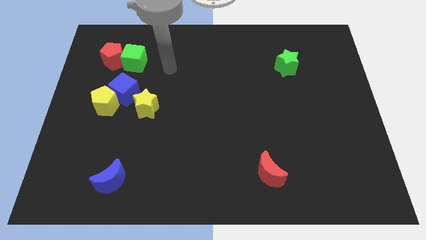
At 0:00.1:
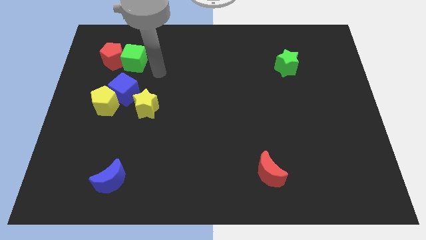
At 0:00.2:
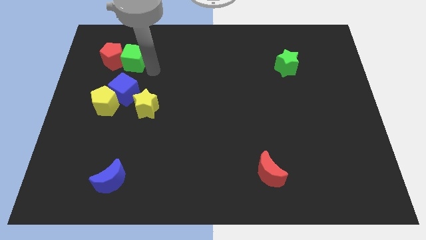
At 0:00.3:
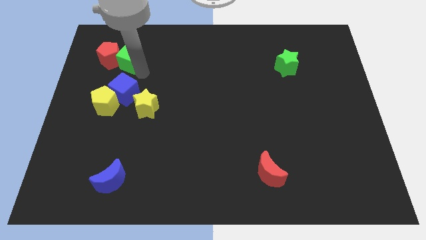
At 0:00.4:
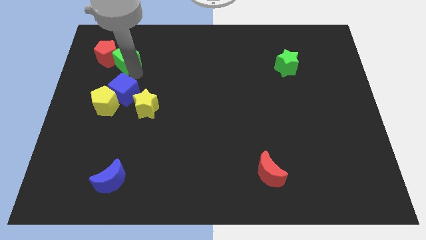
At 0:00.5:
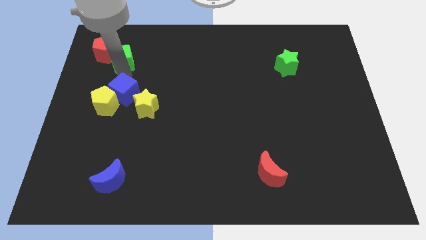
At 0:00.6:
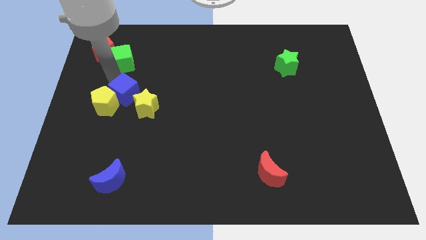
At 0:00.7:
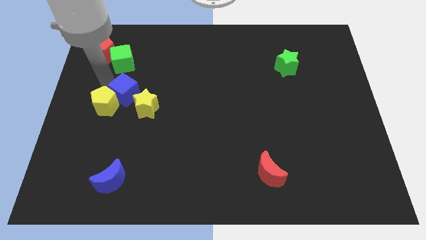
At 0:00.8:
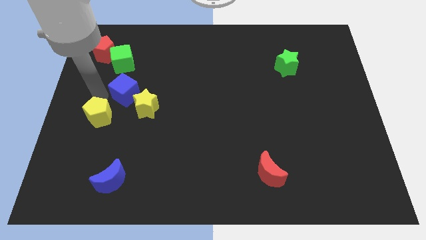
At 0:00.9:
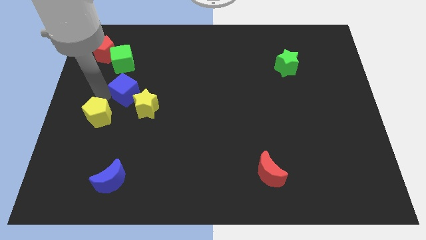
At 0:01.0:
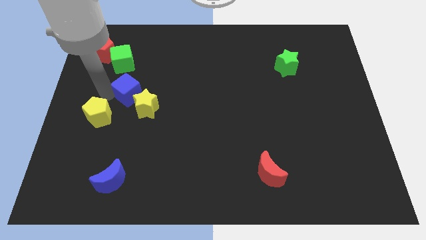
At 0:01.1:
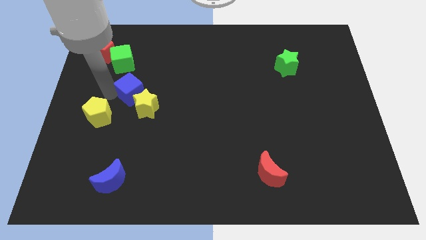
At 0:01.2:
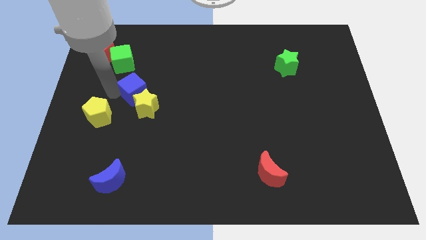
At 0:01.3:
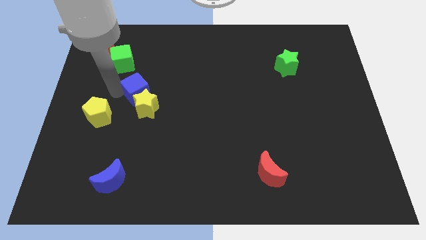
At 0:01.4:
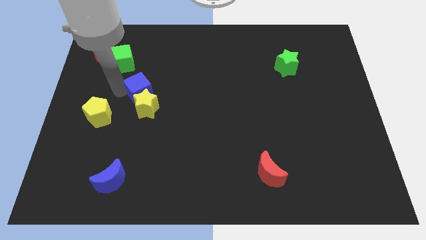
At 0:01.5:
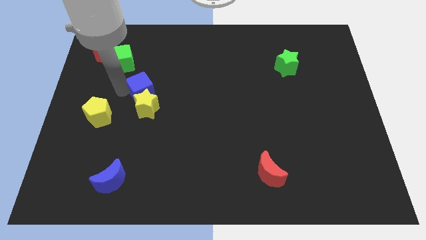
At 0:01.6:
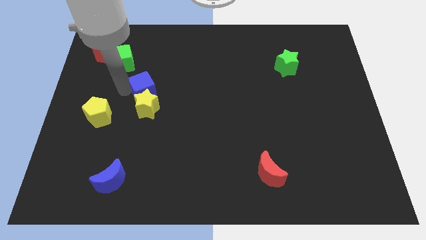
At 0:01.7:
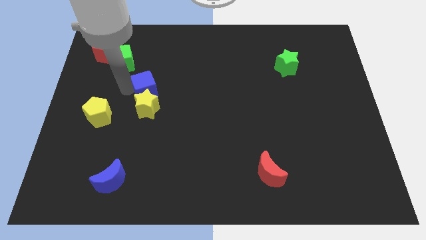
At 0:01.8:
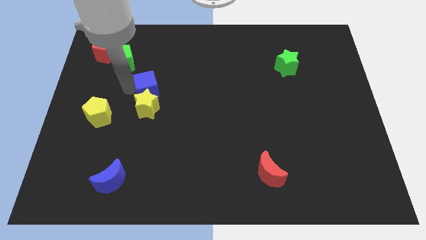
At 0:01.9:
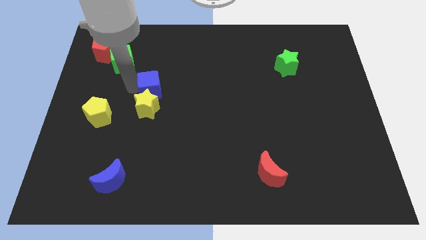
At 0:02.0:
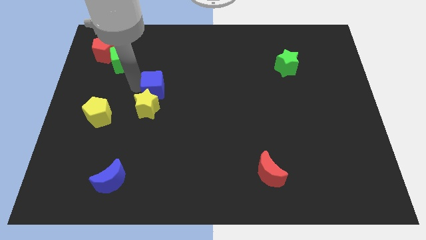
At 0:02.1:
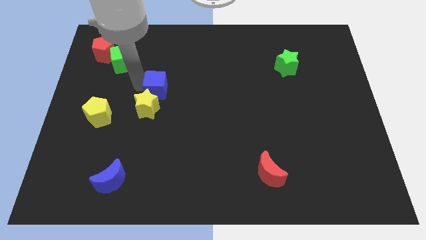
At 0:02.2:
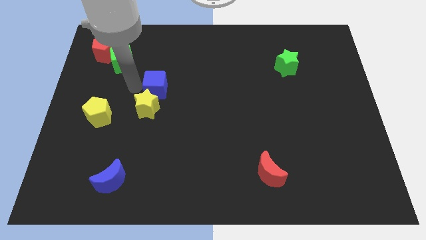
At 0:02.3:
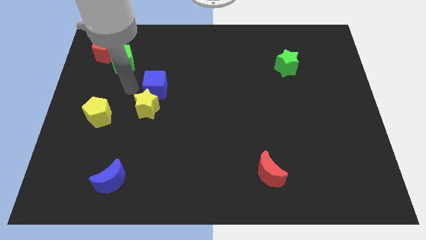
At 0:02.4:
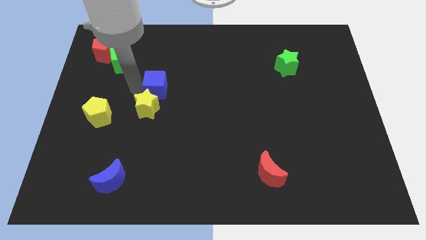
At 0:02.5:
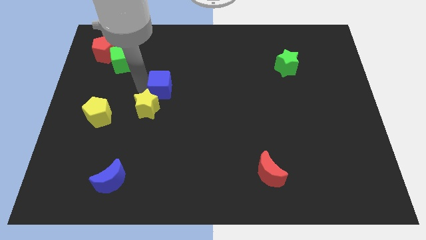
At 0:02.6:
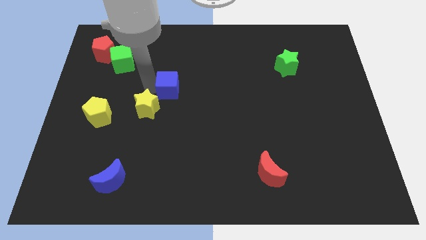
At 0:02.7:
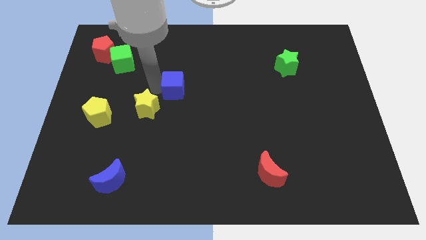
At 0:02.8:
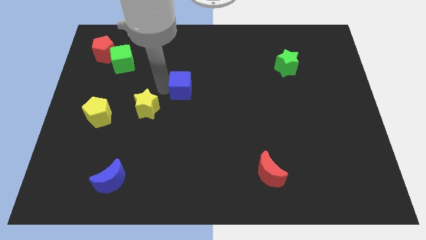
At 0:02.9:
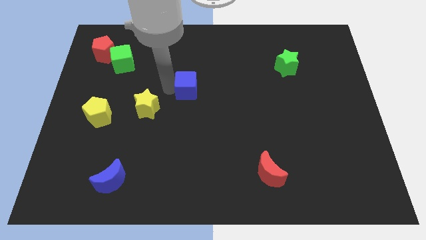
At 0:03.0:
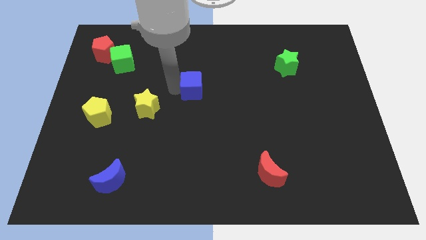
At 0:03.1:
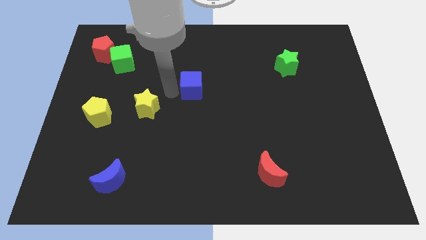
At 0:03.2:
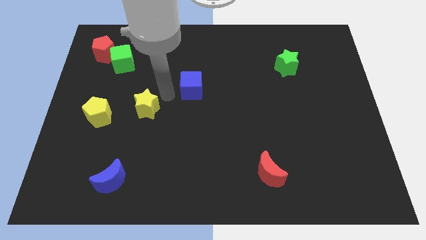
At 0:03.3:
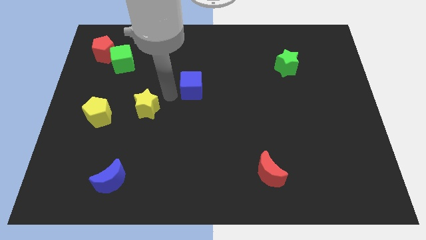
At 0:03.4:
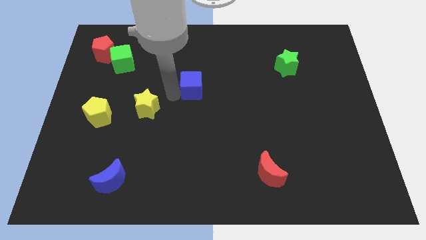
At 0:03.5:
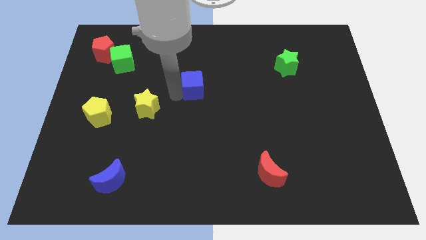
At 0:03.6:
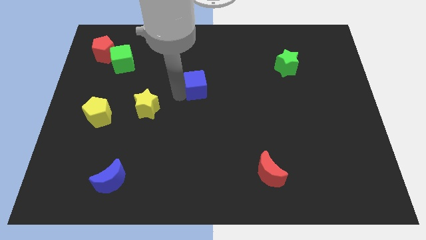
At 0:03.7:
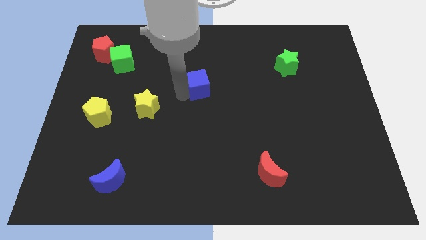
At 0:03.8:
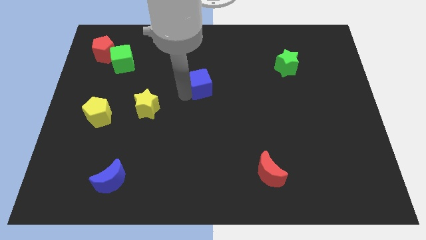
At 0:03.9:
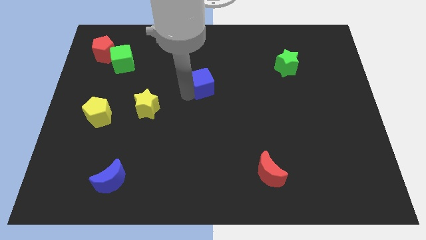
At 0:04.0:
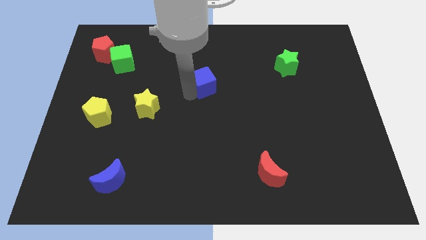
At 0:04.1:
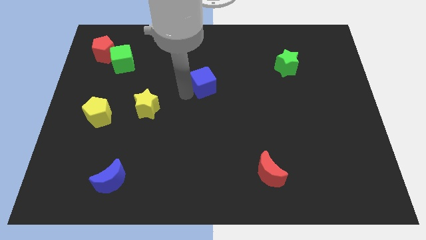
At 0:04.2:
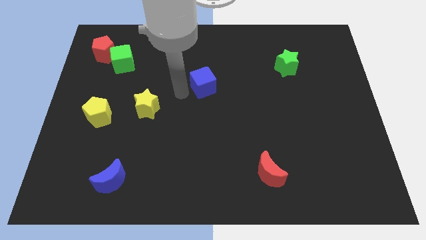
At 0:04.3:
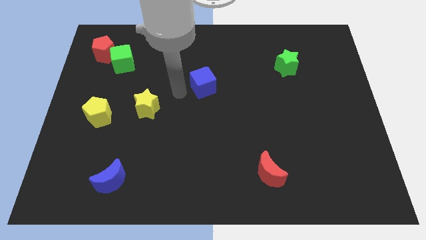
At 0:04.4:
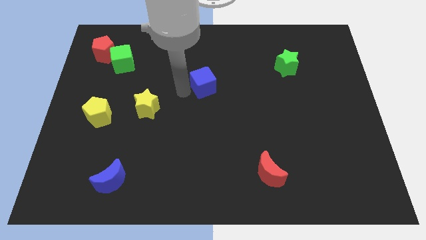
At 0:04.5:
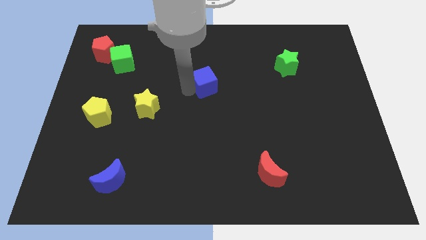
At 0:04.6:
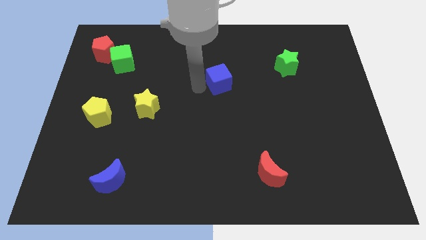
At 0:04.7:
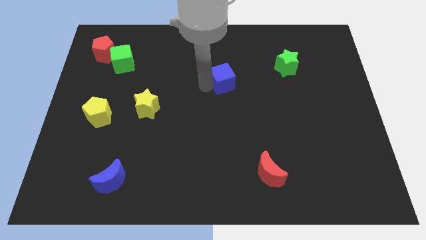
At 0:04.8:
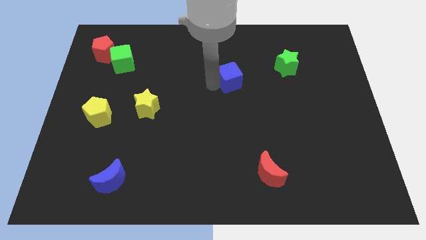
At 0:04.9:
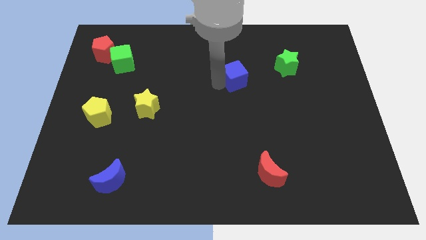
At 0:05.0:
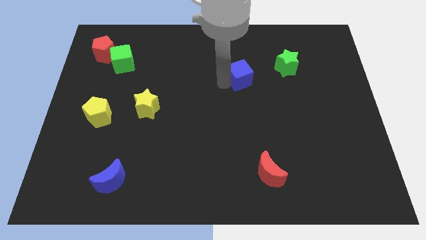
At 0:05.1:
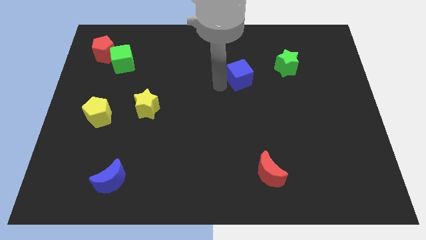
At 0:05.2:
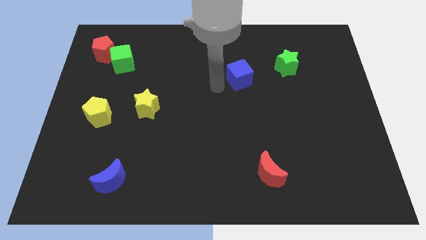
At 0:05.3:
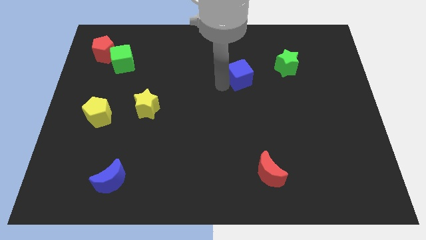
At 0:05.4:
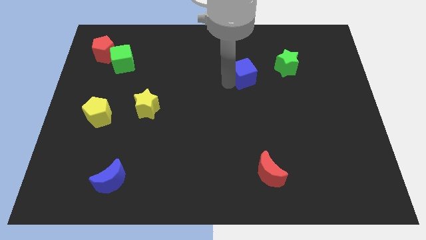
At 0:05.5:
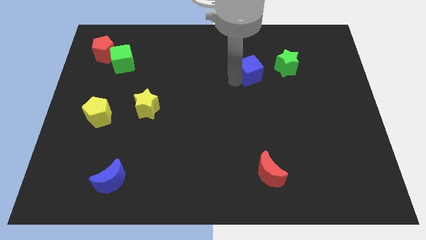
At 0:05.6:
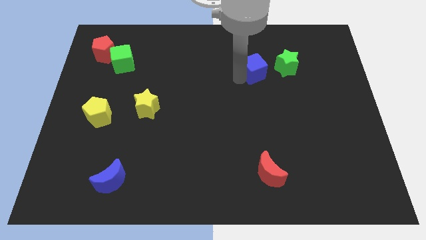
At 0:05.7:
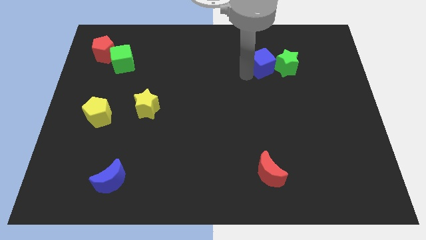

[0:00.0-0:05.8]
slide the blue cube close to the green star

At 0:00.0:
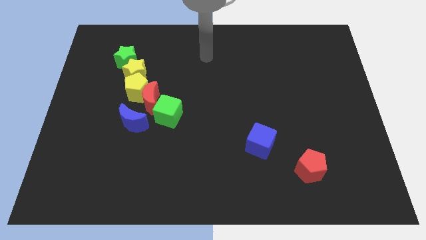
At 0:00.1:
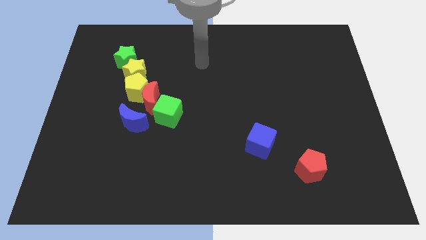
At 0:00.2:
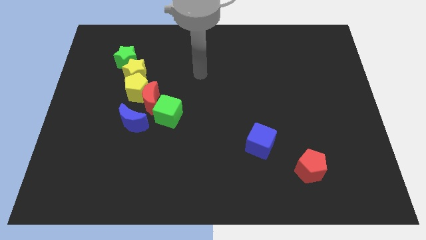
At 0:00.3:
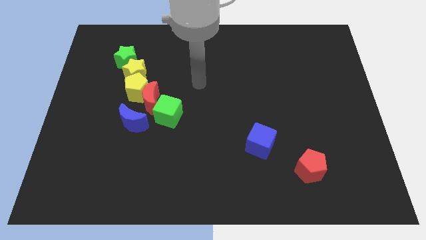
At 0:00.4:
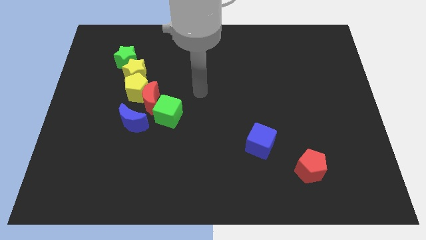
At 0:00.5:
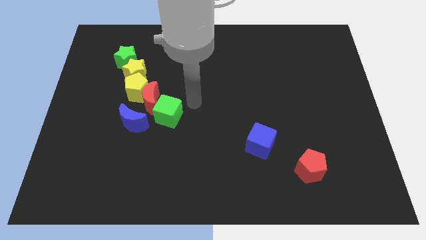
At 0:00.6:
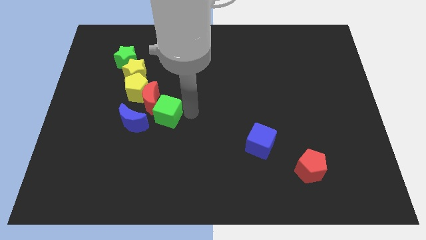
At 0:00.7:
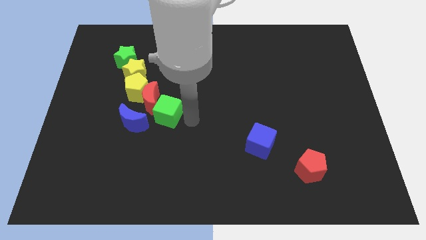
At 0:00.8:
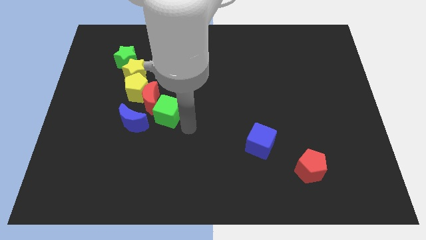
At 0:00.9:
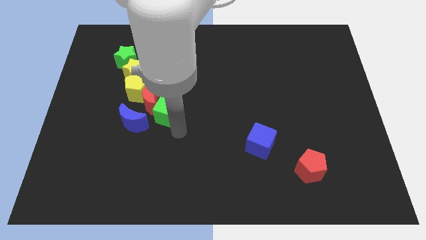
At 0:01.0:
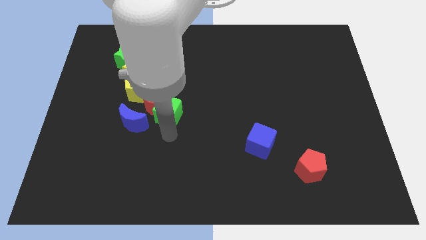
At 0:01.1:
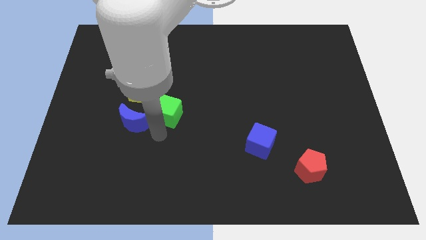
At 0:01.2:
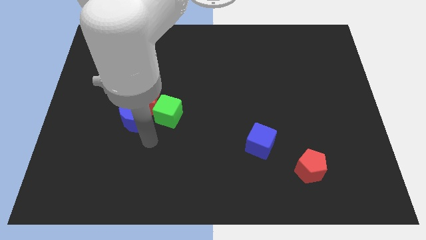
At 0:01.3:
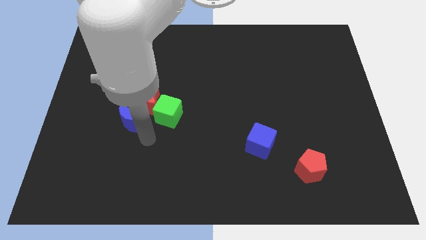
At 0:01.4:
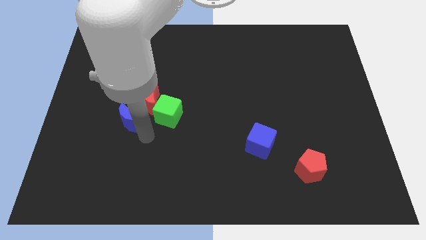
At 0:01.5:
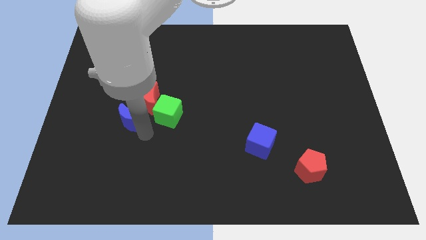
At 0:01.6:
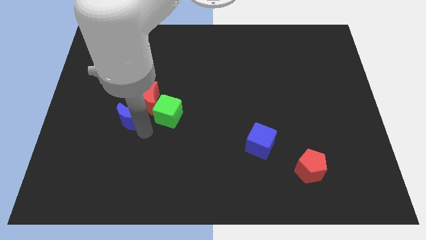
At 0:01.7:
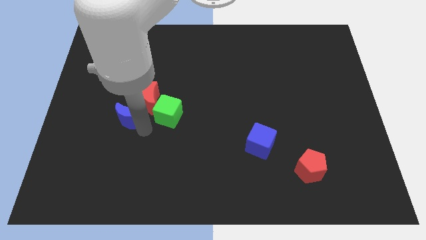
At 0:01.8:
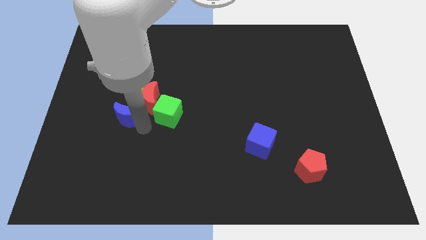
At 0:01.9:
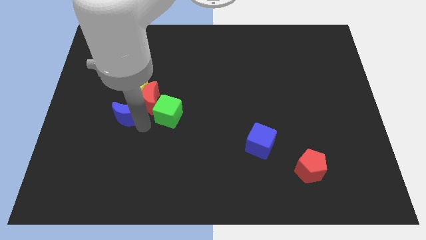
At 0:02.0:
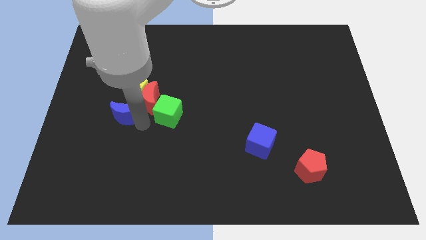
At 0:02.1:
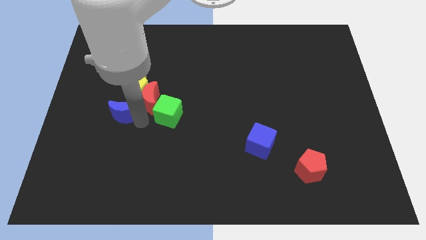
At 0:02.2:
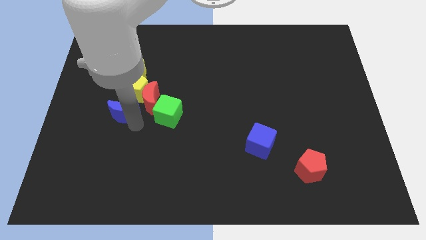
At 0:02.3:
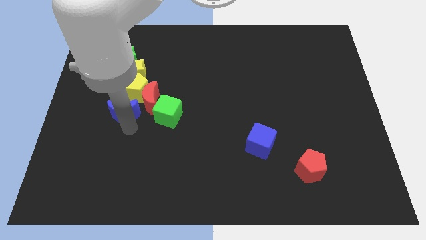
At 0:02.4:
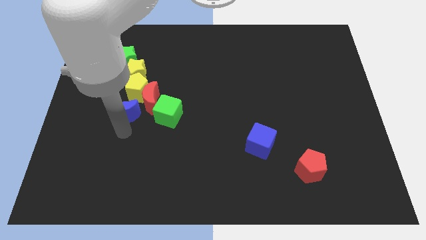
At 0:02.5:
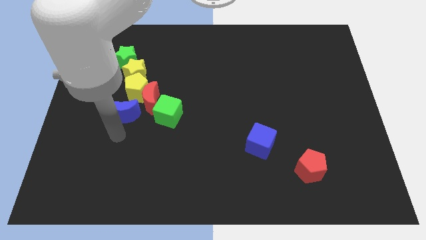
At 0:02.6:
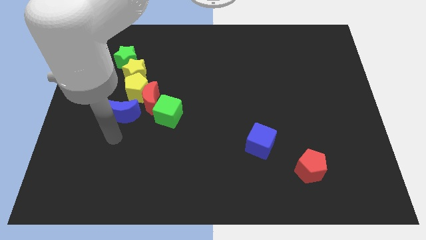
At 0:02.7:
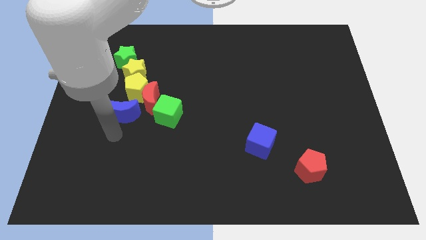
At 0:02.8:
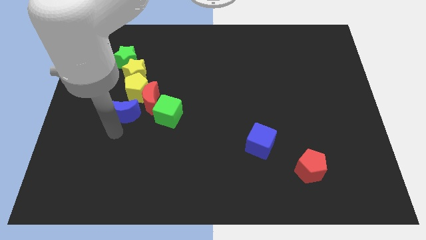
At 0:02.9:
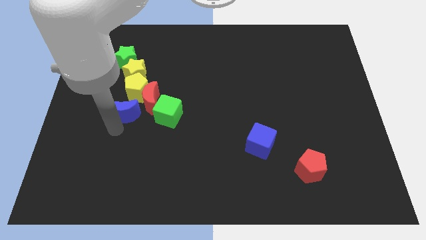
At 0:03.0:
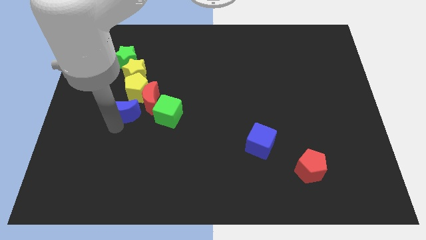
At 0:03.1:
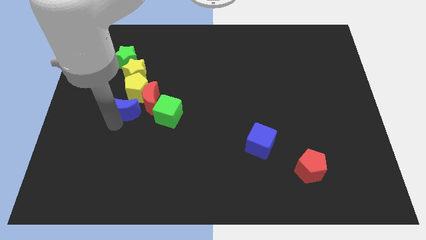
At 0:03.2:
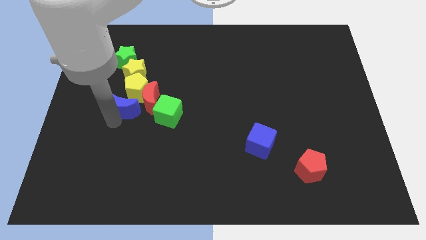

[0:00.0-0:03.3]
move the blue moon next to the yellow pentagon
